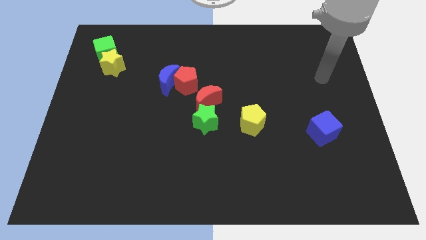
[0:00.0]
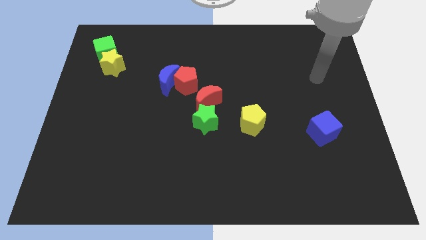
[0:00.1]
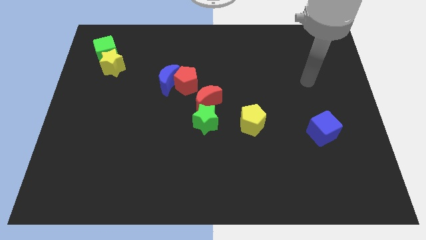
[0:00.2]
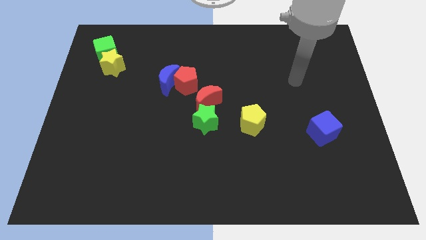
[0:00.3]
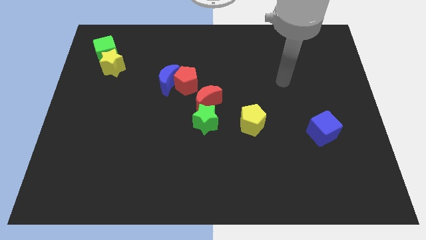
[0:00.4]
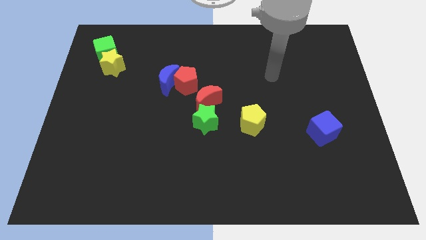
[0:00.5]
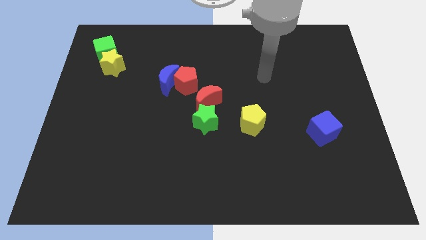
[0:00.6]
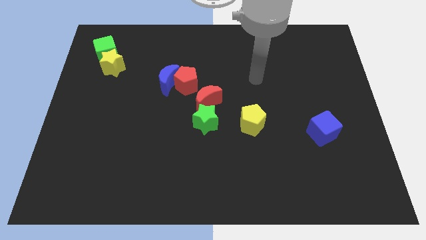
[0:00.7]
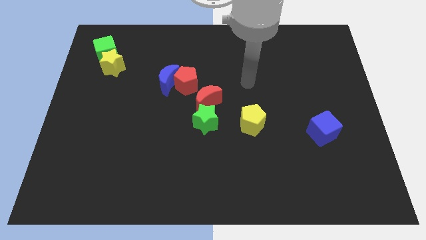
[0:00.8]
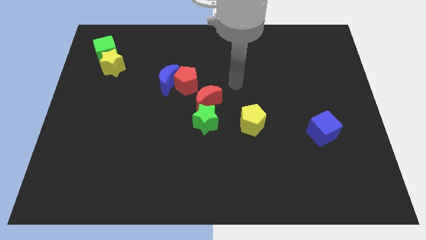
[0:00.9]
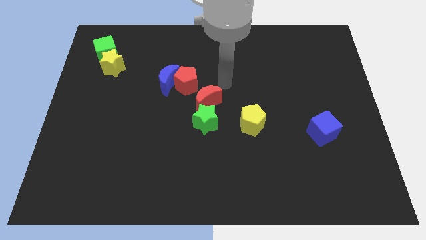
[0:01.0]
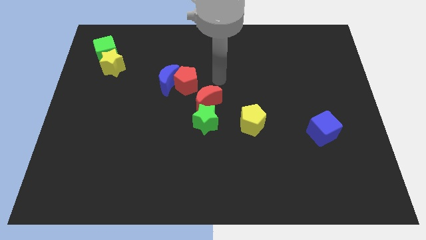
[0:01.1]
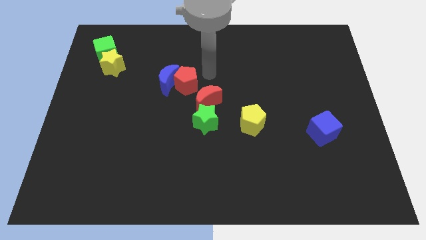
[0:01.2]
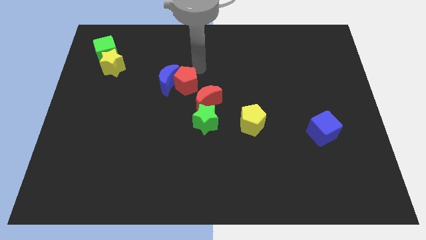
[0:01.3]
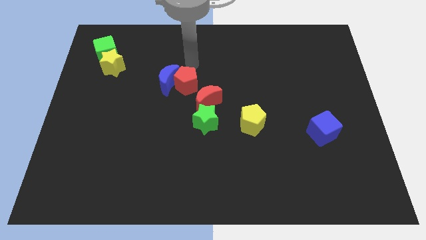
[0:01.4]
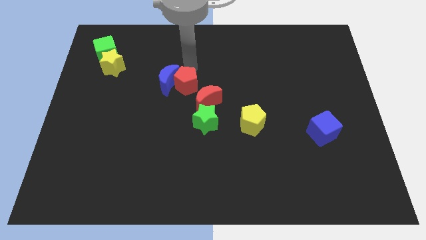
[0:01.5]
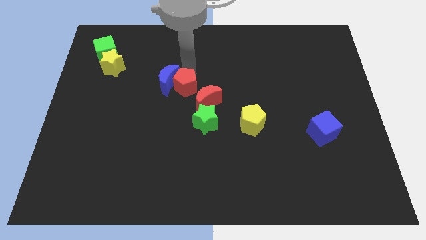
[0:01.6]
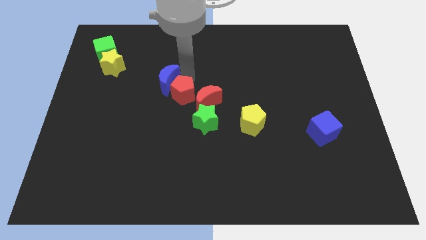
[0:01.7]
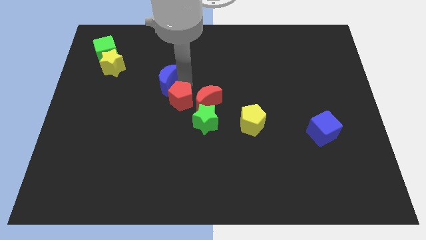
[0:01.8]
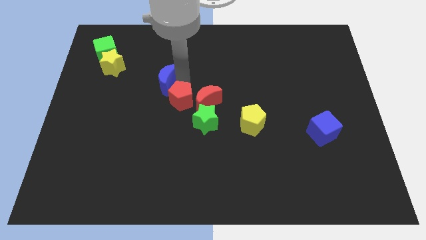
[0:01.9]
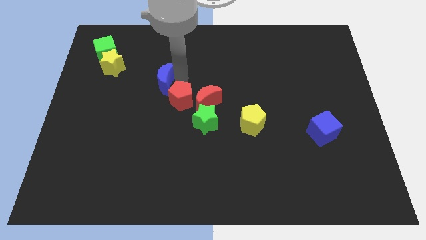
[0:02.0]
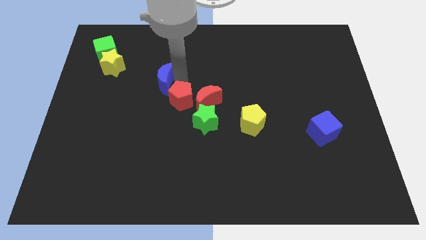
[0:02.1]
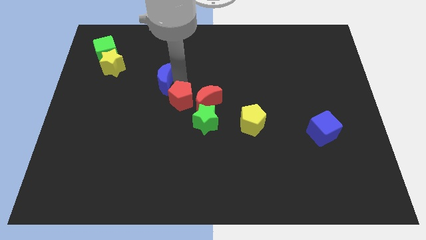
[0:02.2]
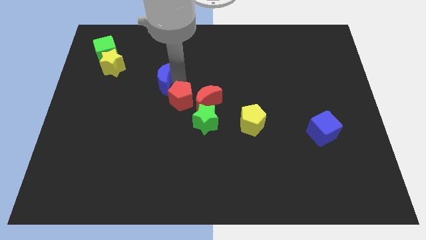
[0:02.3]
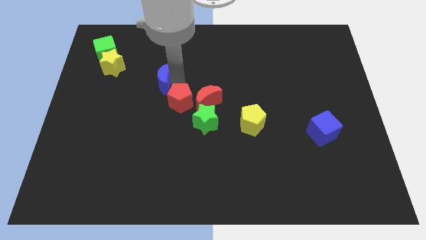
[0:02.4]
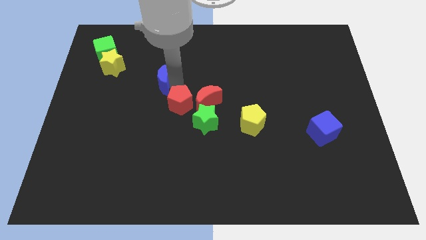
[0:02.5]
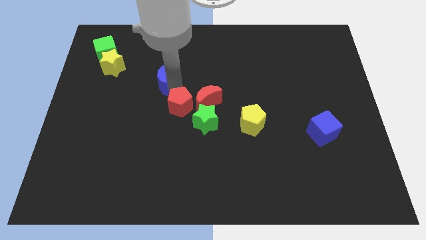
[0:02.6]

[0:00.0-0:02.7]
slide the red pentagon slightly down

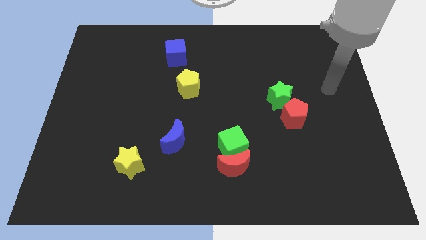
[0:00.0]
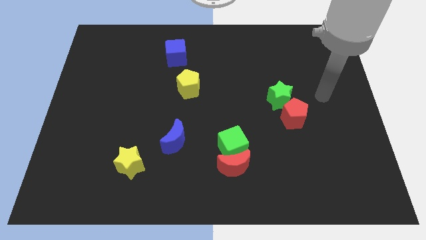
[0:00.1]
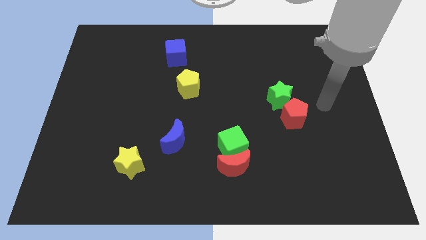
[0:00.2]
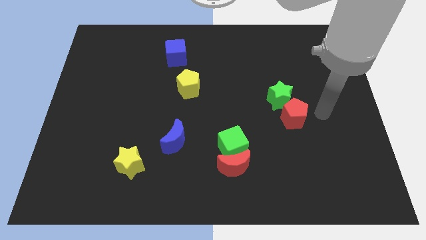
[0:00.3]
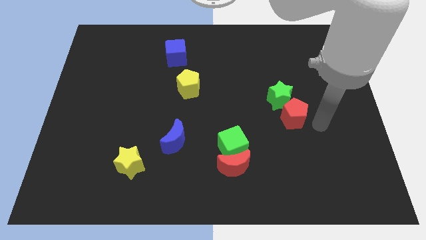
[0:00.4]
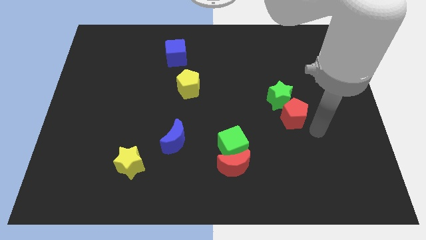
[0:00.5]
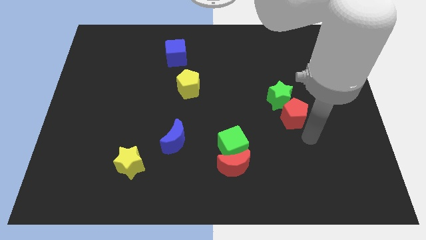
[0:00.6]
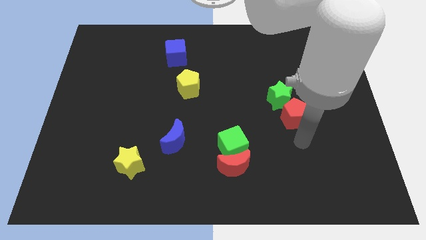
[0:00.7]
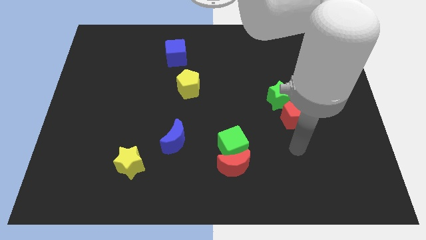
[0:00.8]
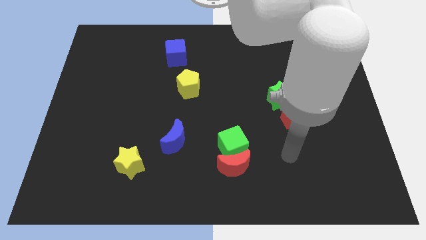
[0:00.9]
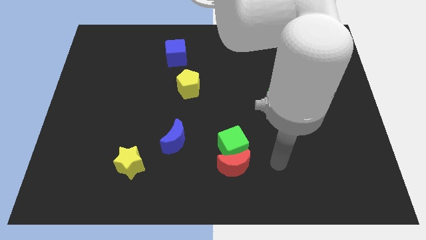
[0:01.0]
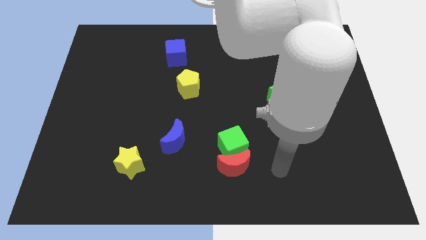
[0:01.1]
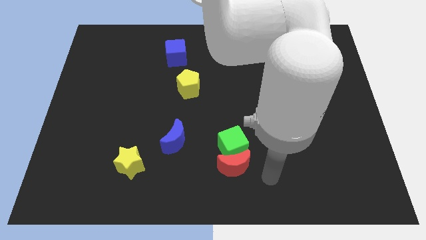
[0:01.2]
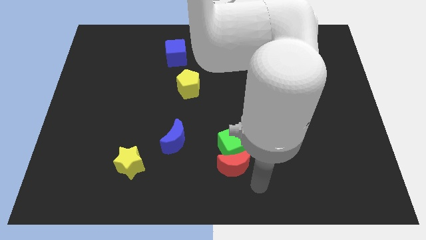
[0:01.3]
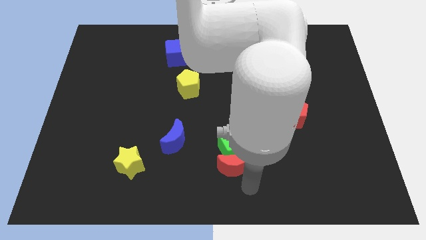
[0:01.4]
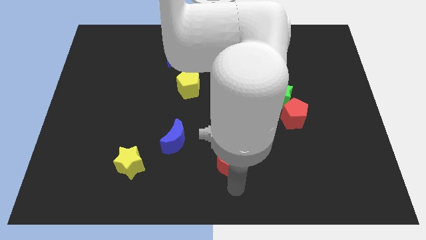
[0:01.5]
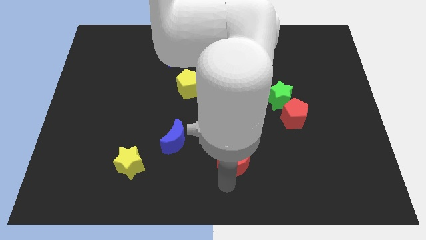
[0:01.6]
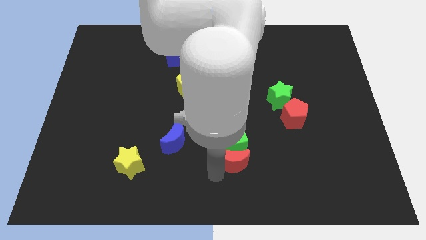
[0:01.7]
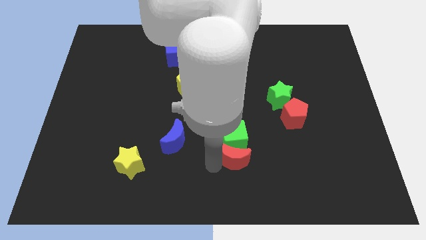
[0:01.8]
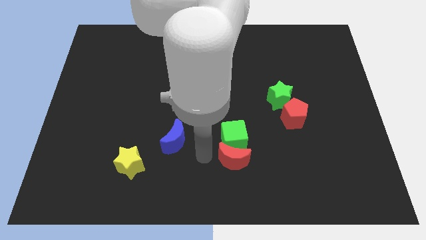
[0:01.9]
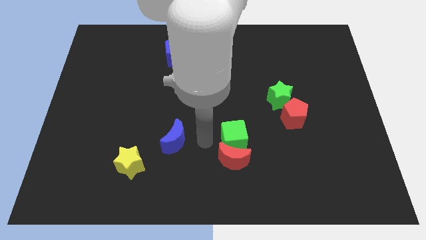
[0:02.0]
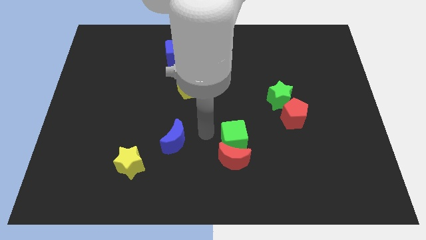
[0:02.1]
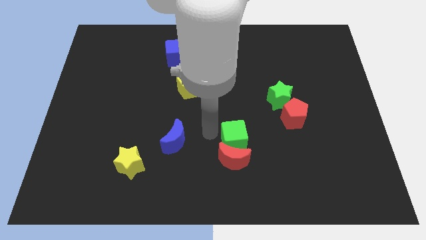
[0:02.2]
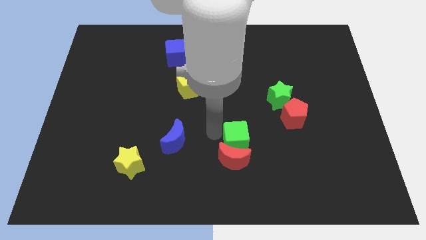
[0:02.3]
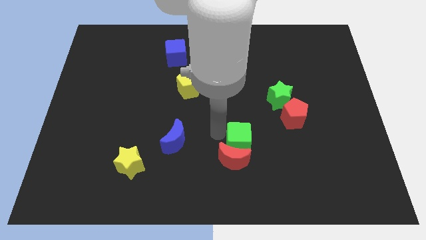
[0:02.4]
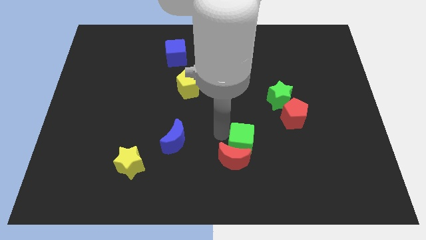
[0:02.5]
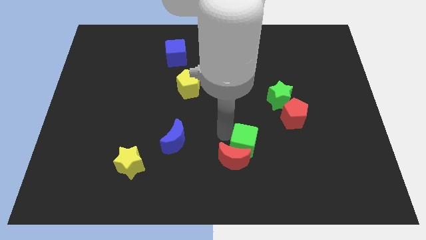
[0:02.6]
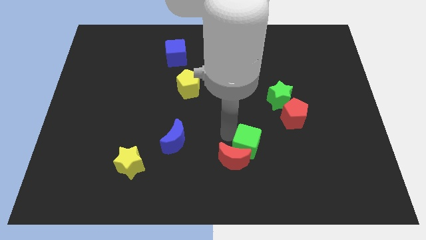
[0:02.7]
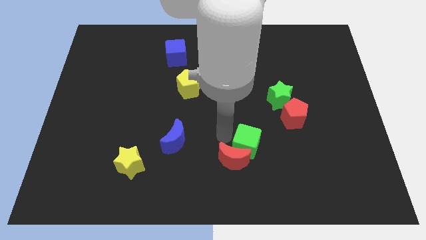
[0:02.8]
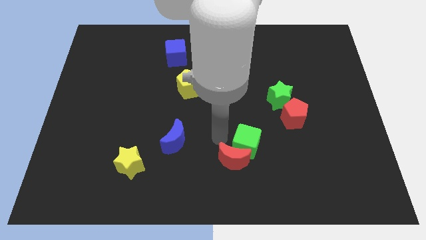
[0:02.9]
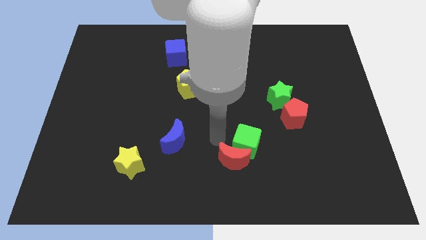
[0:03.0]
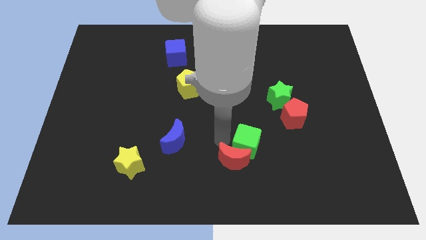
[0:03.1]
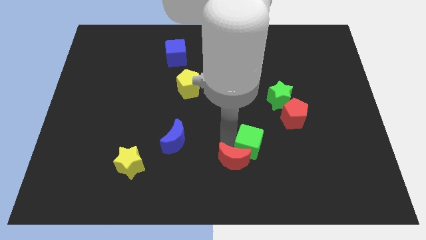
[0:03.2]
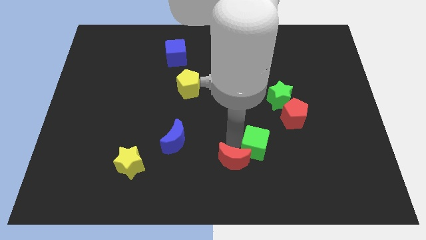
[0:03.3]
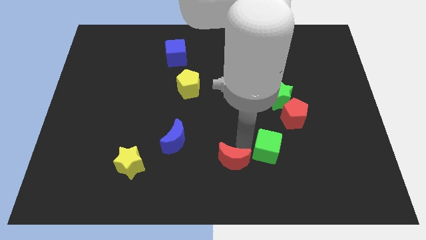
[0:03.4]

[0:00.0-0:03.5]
move the green cube somewhat right

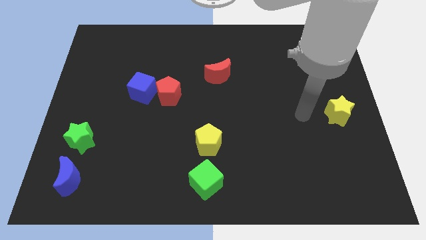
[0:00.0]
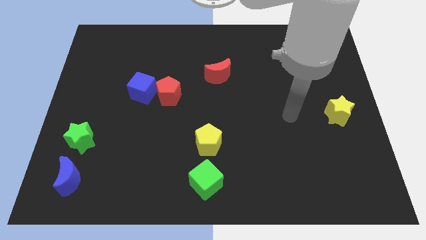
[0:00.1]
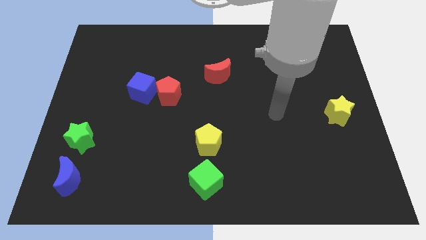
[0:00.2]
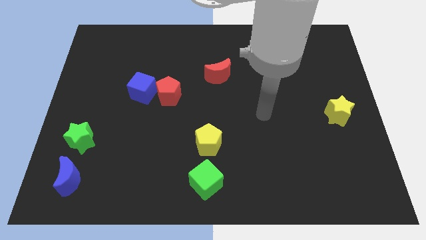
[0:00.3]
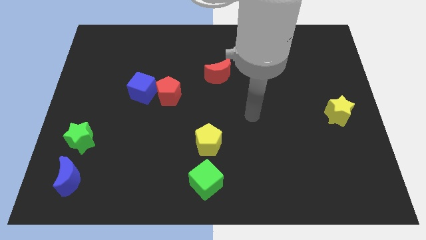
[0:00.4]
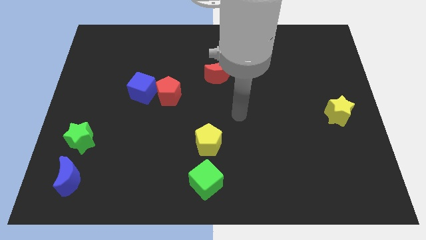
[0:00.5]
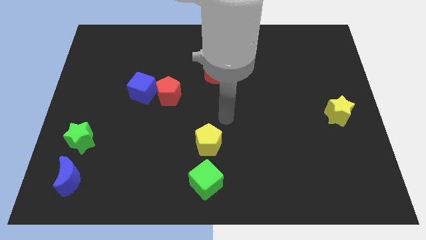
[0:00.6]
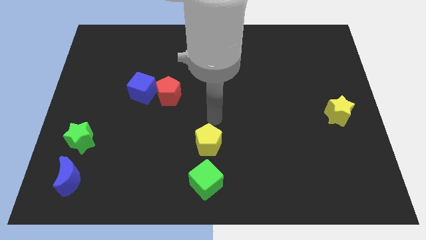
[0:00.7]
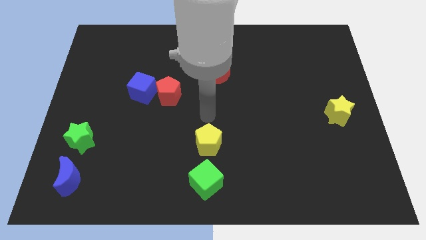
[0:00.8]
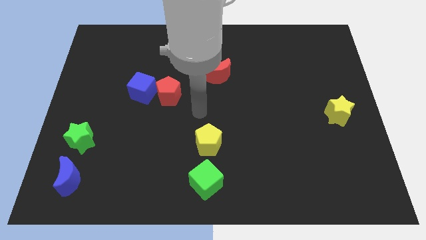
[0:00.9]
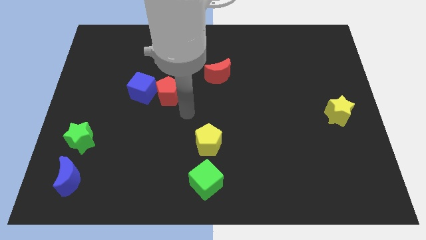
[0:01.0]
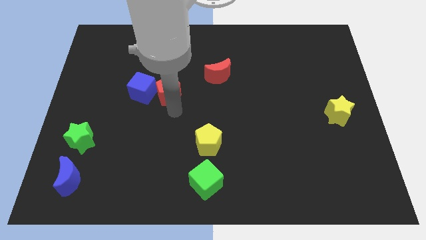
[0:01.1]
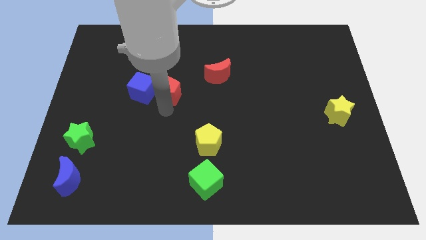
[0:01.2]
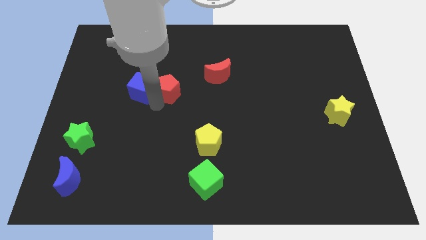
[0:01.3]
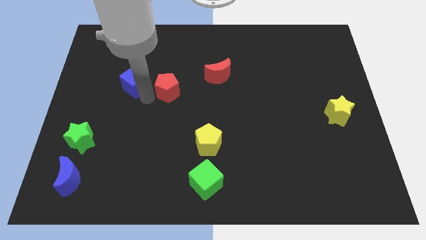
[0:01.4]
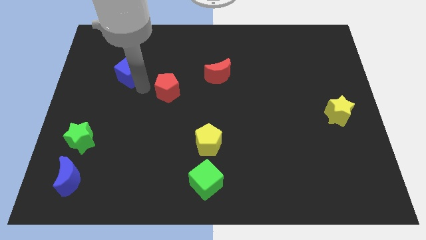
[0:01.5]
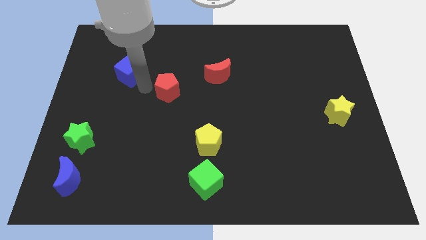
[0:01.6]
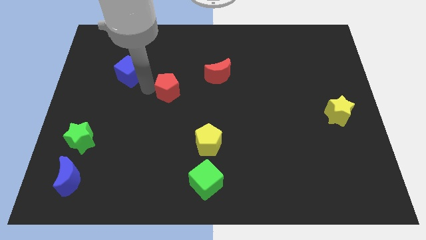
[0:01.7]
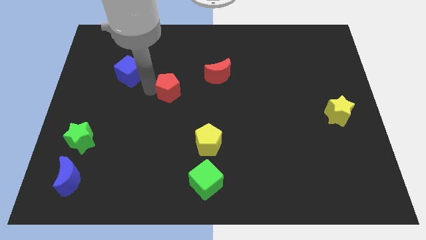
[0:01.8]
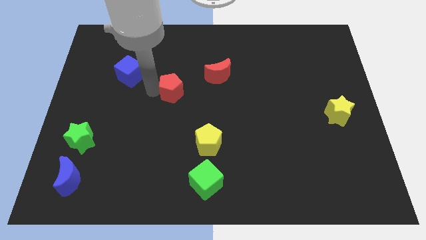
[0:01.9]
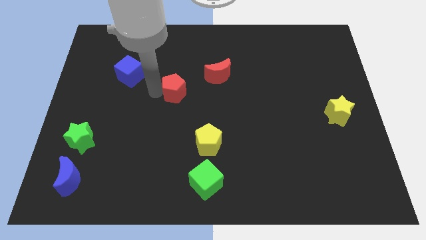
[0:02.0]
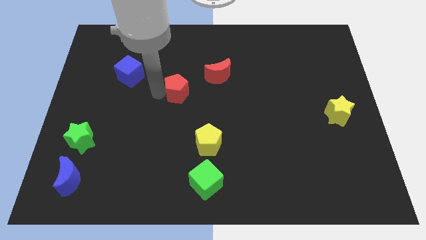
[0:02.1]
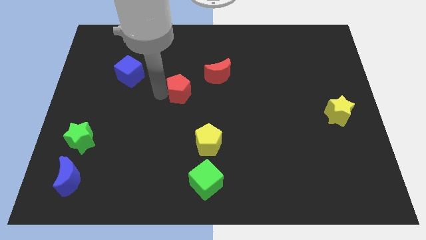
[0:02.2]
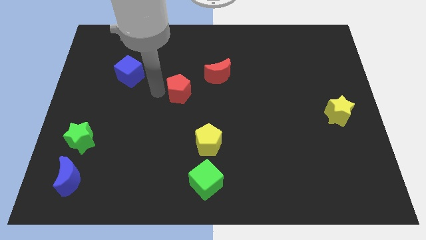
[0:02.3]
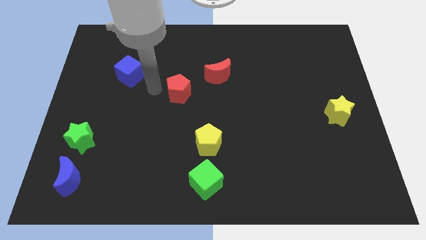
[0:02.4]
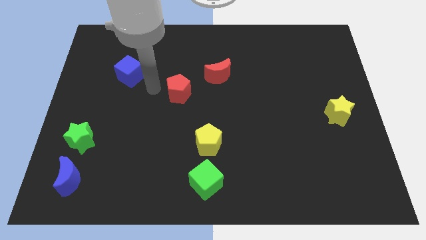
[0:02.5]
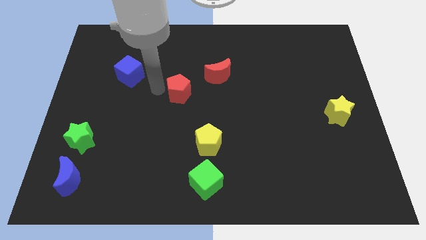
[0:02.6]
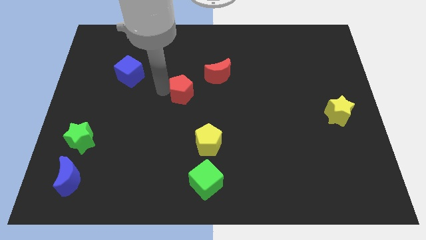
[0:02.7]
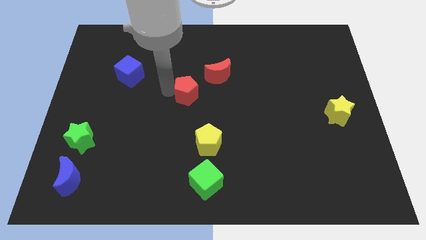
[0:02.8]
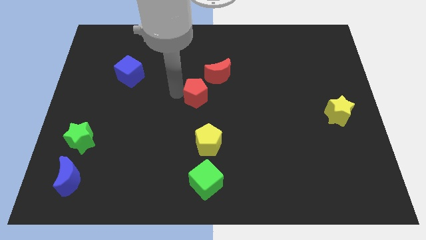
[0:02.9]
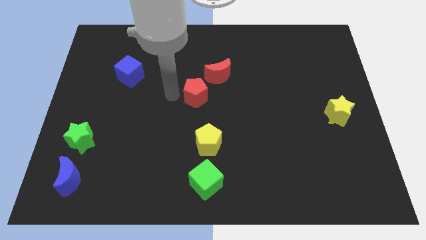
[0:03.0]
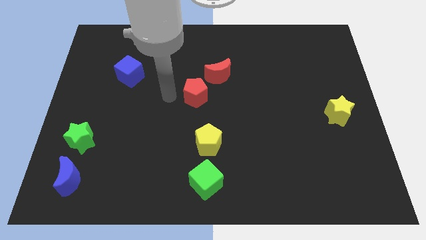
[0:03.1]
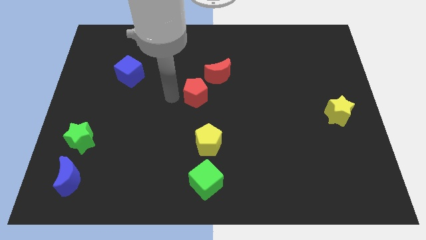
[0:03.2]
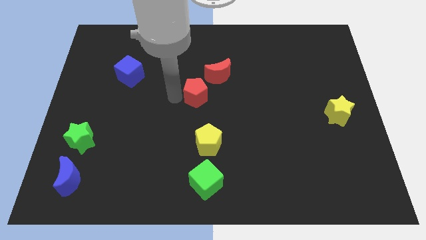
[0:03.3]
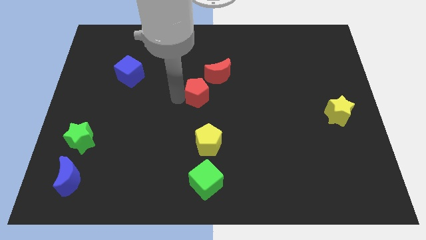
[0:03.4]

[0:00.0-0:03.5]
push the red pentagon somewhat to the right
